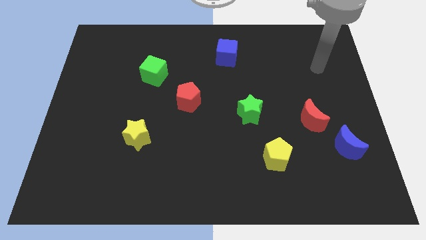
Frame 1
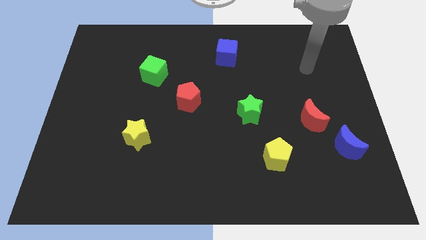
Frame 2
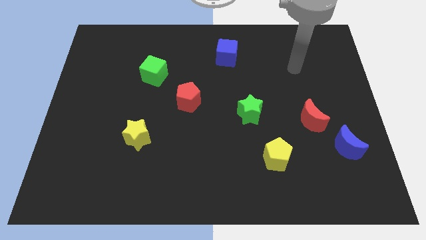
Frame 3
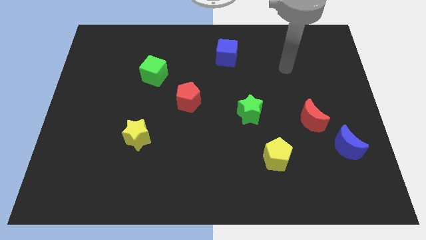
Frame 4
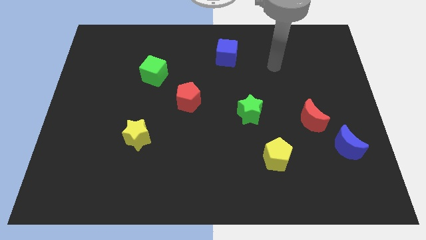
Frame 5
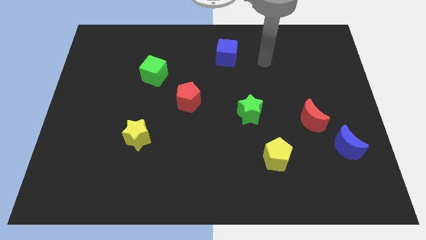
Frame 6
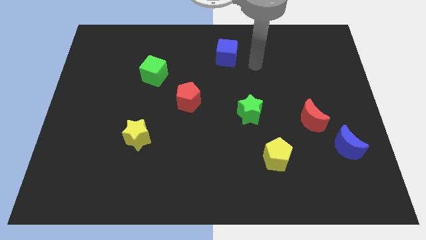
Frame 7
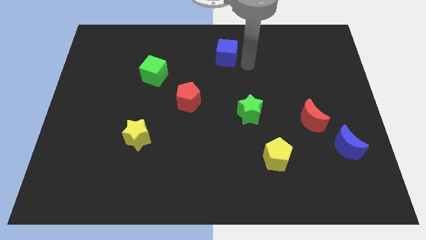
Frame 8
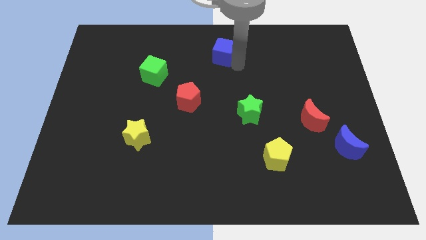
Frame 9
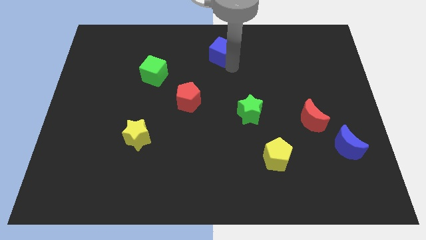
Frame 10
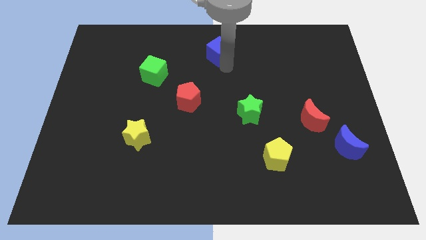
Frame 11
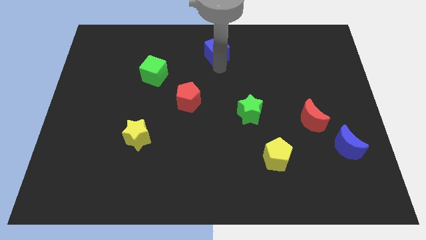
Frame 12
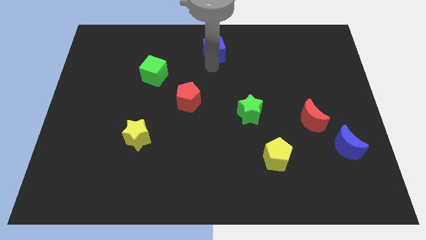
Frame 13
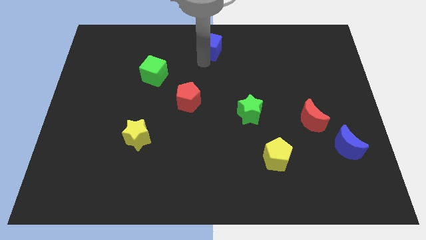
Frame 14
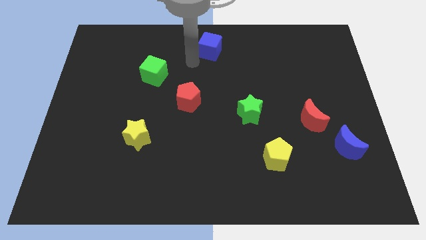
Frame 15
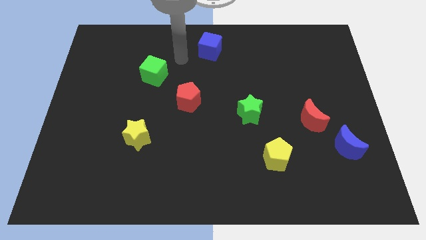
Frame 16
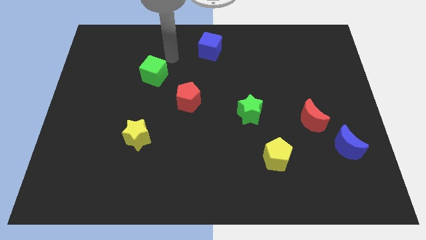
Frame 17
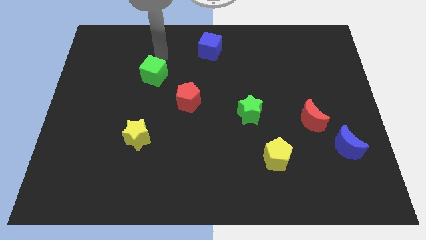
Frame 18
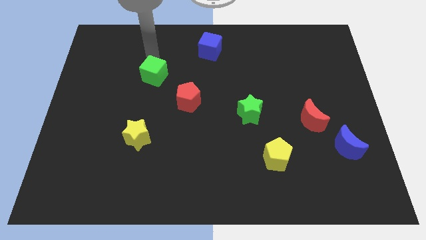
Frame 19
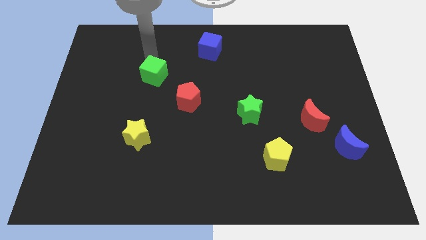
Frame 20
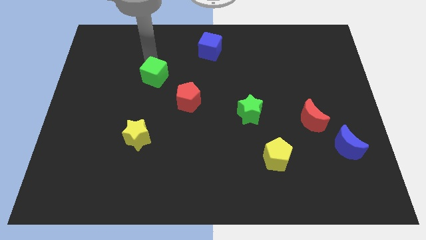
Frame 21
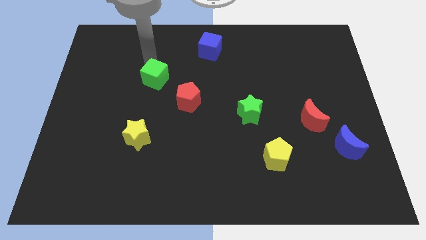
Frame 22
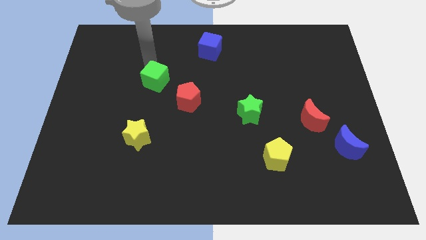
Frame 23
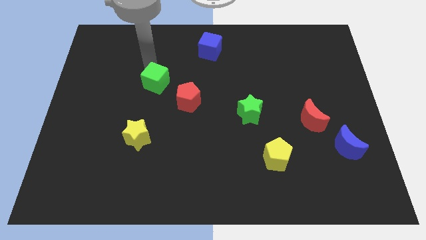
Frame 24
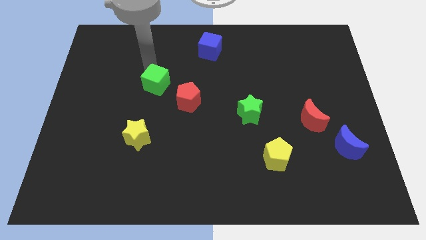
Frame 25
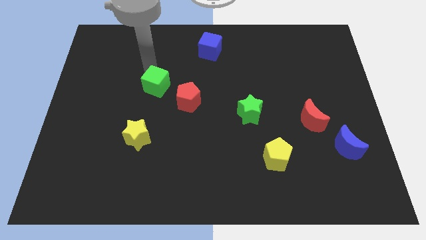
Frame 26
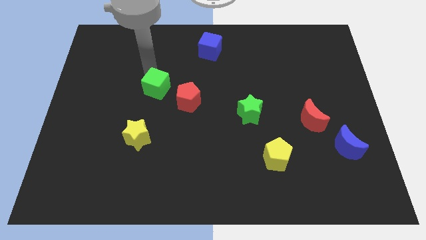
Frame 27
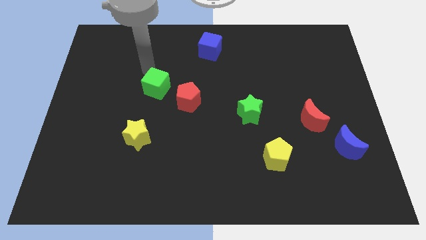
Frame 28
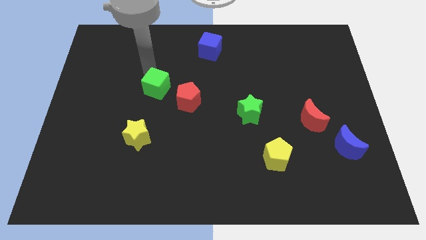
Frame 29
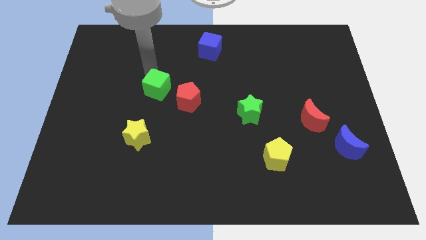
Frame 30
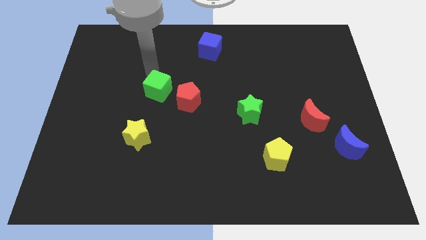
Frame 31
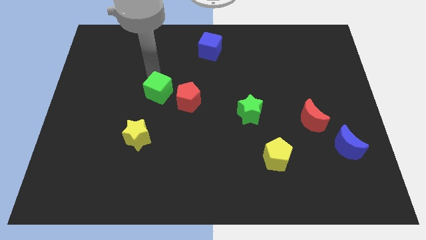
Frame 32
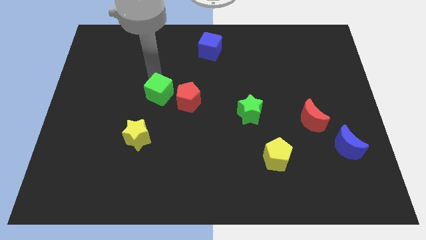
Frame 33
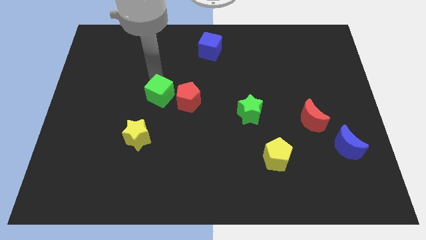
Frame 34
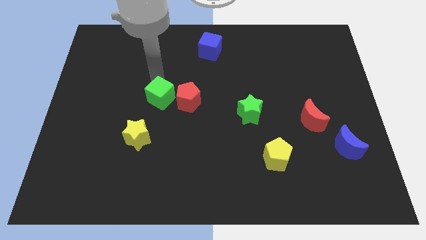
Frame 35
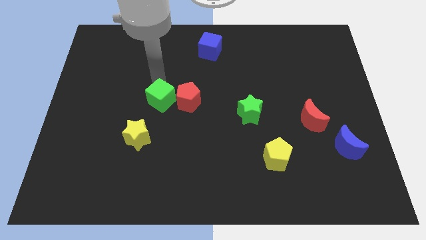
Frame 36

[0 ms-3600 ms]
slide the green cube downwards and right diagonally somewhat

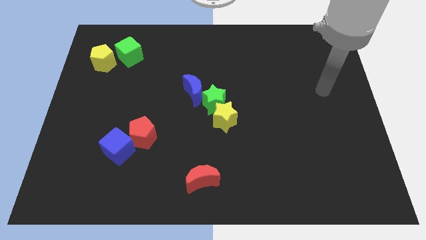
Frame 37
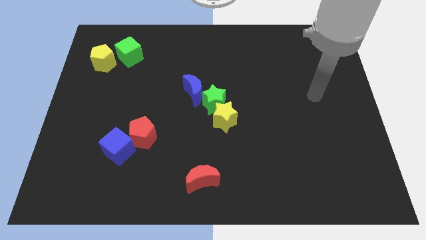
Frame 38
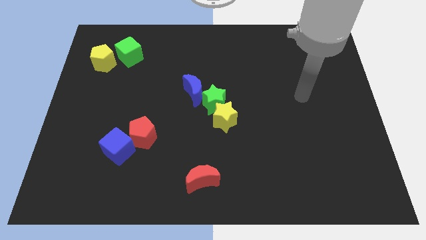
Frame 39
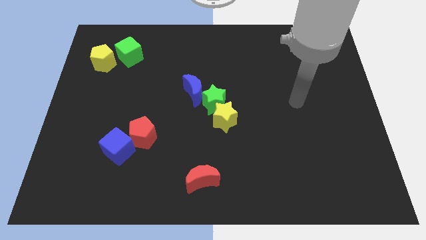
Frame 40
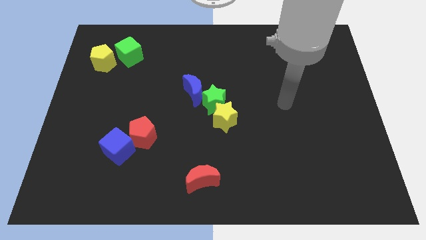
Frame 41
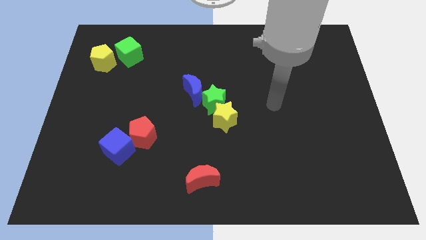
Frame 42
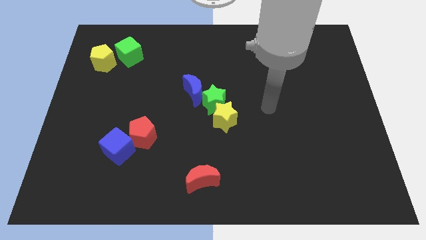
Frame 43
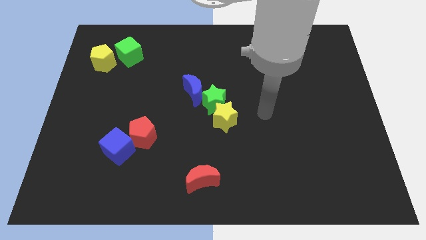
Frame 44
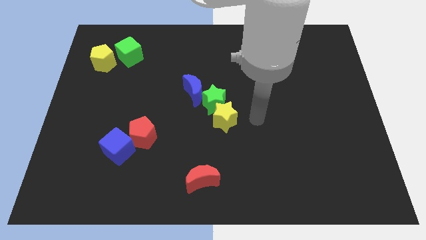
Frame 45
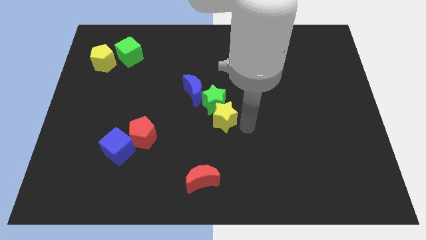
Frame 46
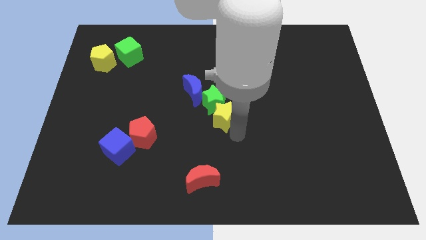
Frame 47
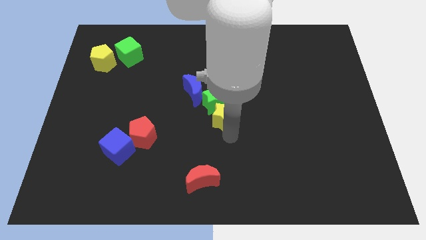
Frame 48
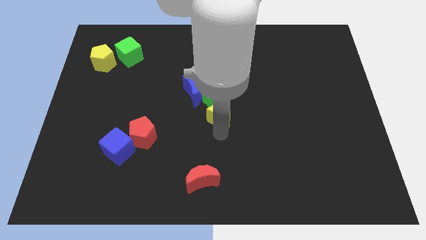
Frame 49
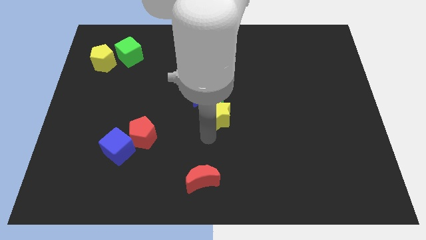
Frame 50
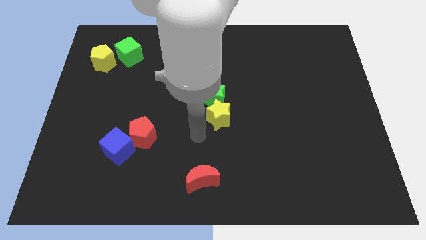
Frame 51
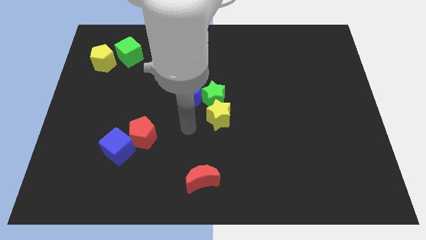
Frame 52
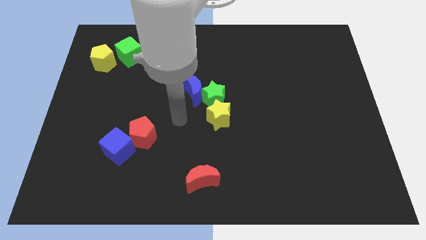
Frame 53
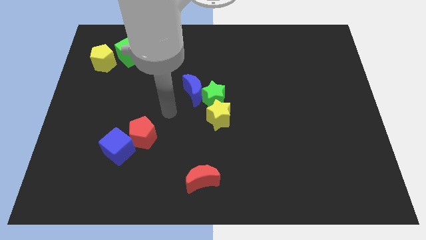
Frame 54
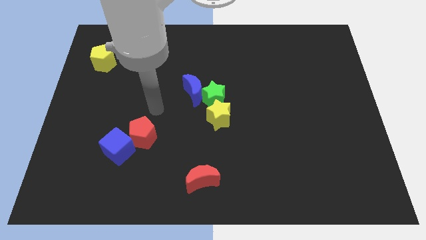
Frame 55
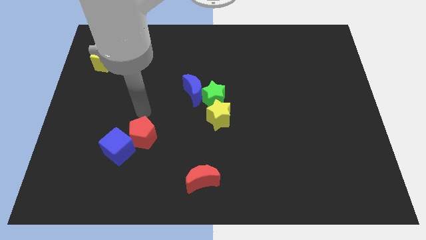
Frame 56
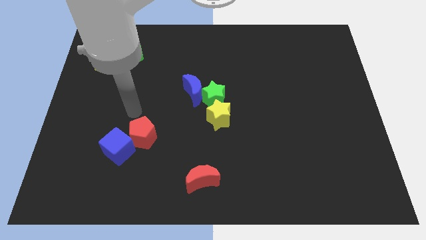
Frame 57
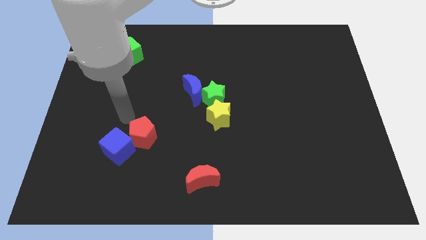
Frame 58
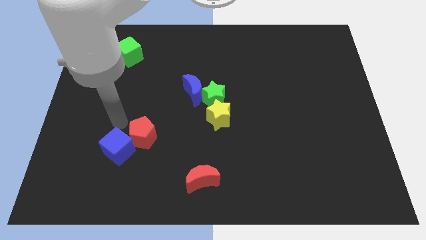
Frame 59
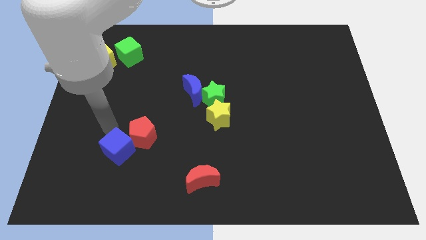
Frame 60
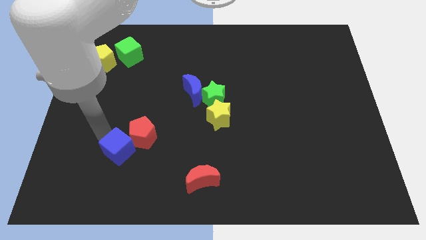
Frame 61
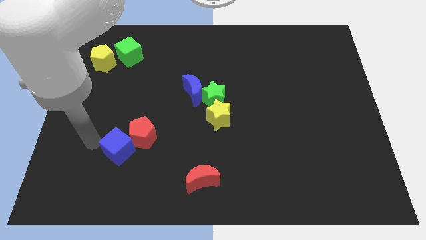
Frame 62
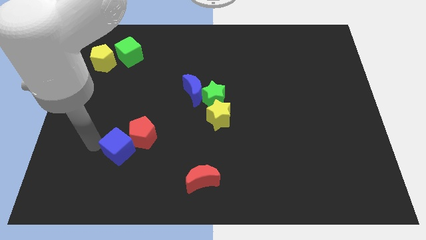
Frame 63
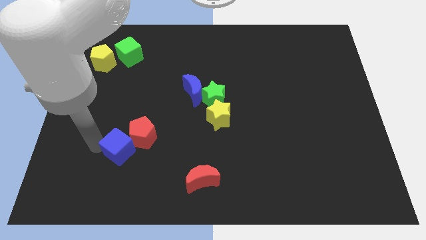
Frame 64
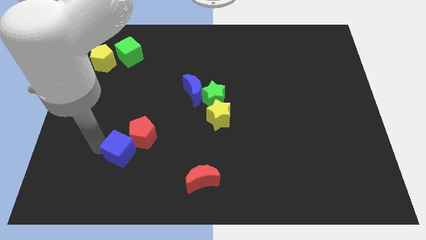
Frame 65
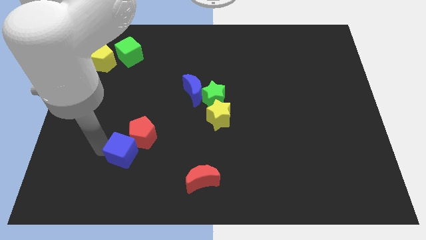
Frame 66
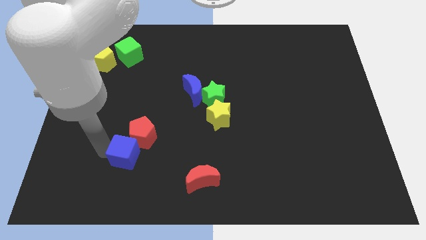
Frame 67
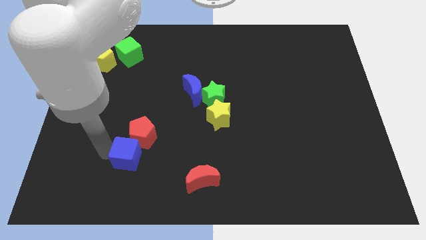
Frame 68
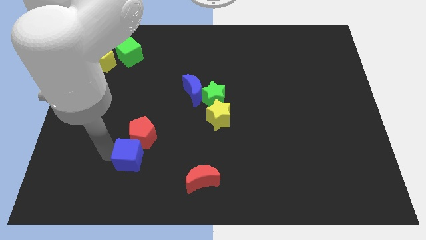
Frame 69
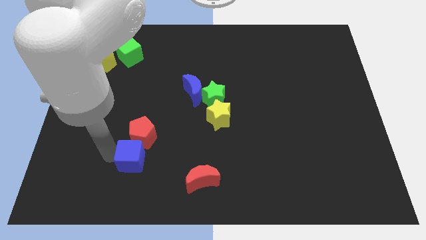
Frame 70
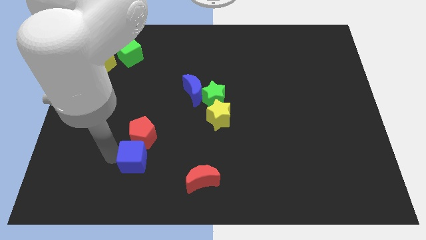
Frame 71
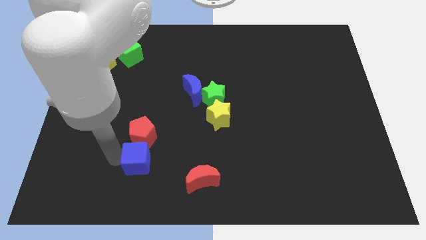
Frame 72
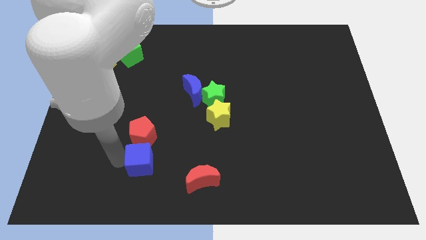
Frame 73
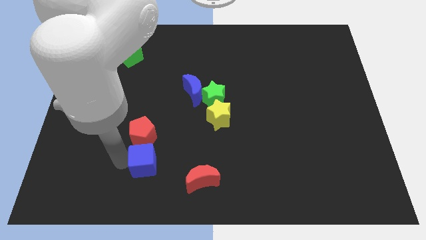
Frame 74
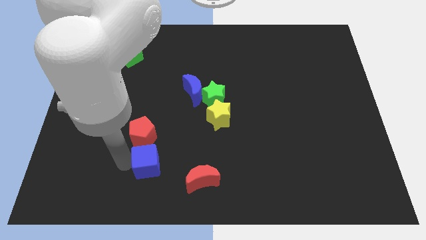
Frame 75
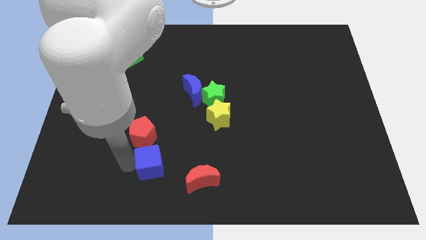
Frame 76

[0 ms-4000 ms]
slightly slide the blue cube right

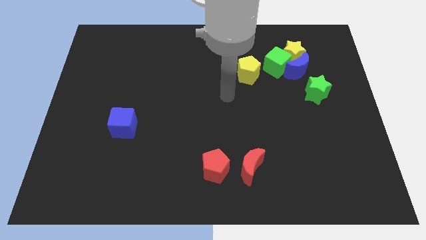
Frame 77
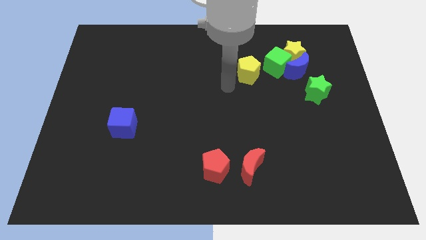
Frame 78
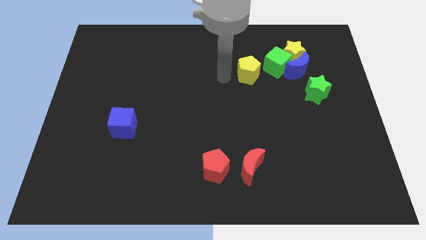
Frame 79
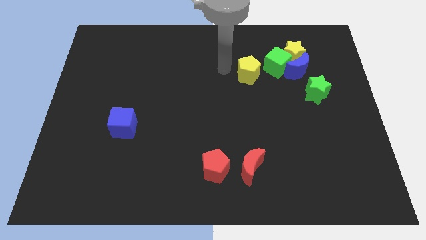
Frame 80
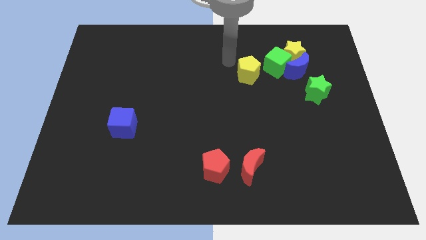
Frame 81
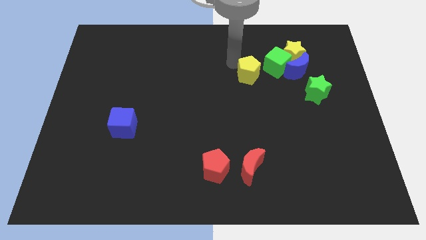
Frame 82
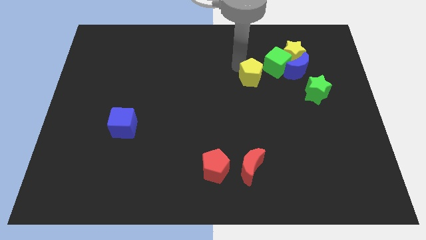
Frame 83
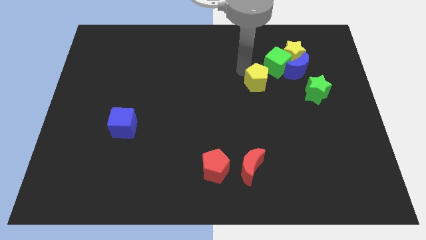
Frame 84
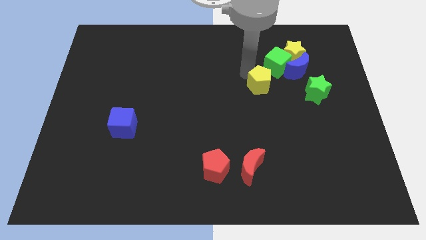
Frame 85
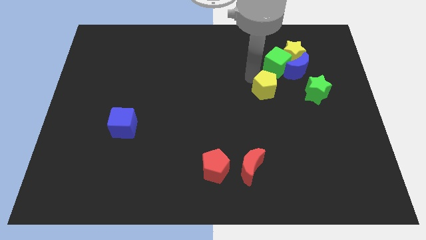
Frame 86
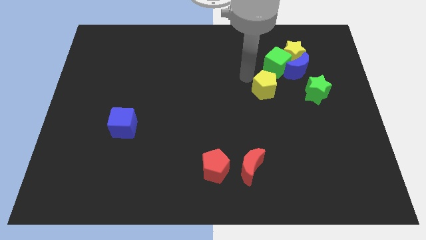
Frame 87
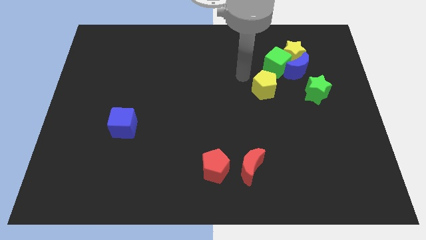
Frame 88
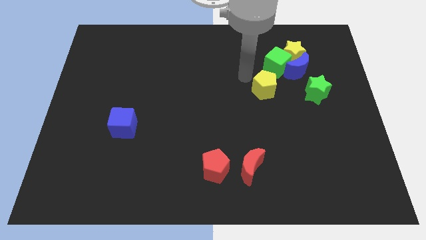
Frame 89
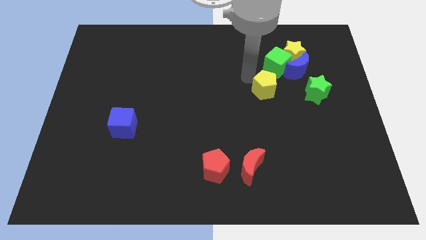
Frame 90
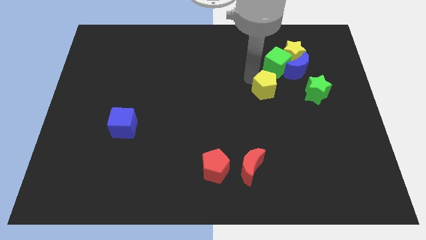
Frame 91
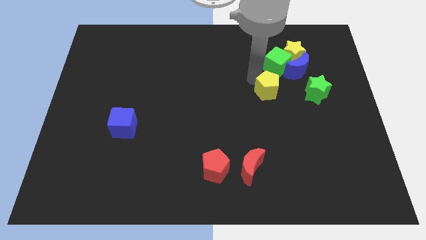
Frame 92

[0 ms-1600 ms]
push the yellow pentagon a little bit down and to the right diagonally
